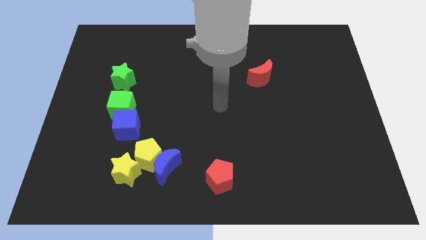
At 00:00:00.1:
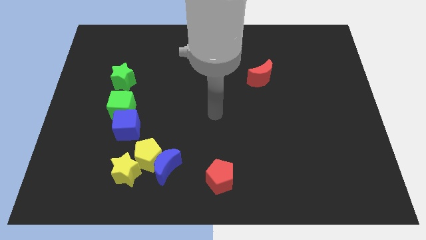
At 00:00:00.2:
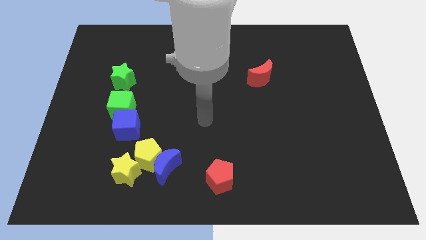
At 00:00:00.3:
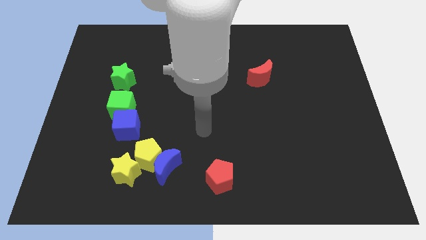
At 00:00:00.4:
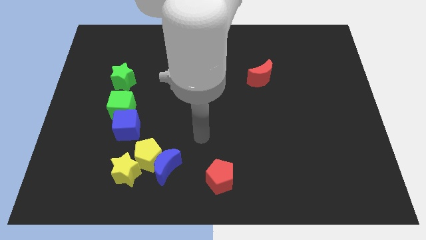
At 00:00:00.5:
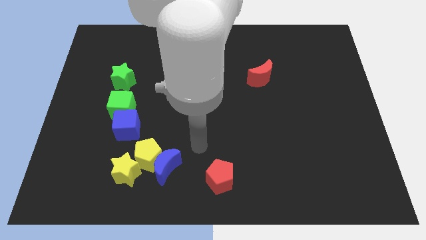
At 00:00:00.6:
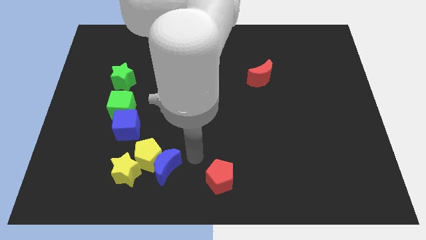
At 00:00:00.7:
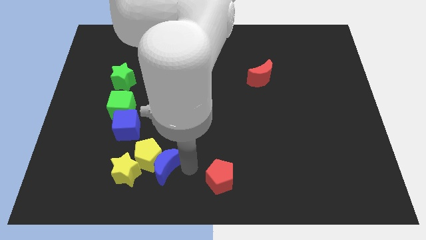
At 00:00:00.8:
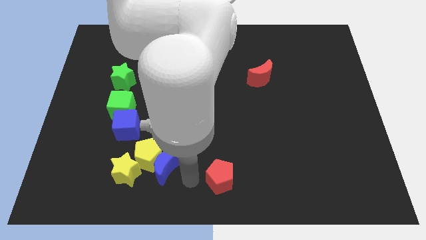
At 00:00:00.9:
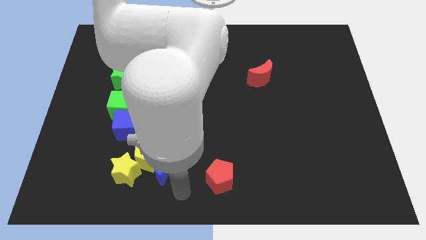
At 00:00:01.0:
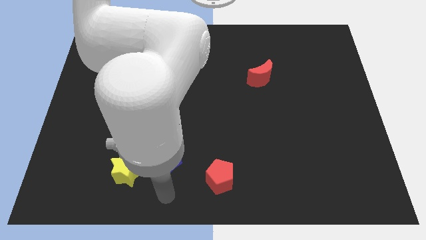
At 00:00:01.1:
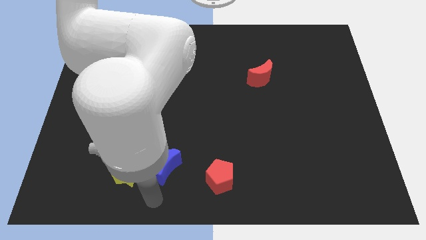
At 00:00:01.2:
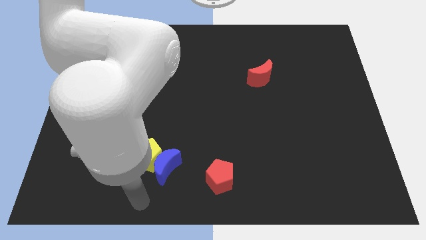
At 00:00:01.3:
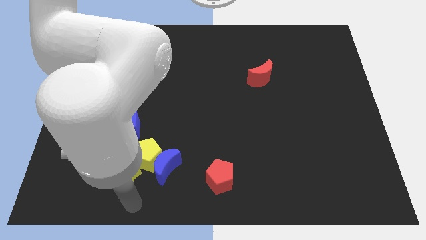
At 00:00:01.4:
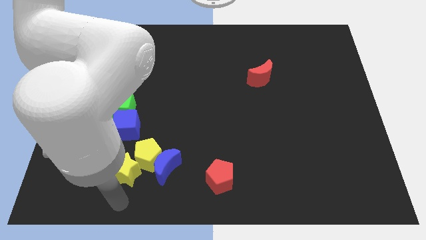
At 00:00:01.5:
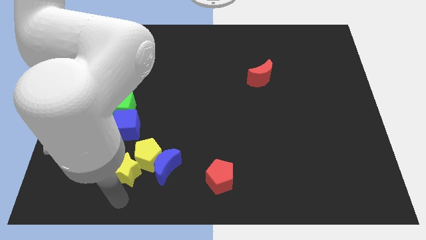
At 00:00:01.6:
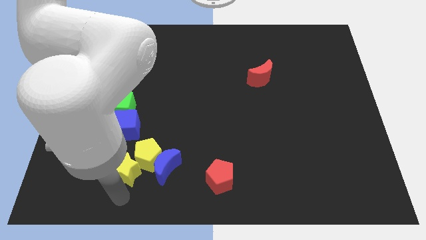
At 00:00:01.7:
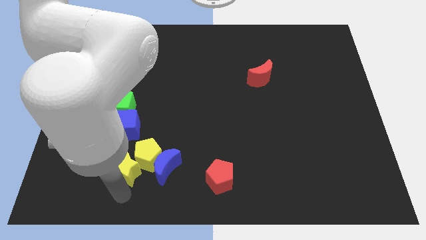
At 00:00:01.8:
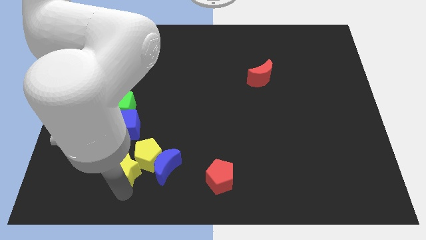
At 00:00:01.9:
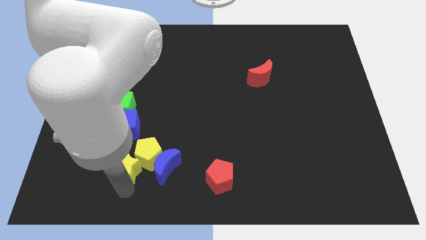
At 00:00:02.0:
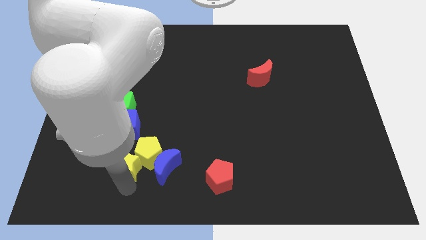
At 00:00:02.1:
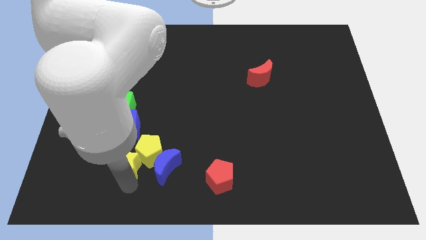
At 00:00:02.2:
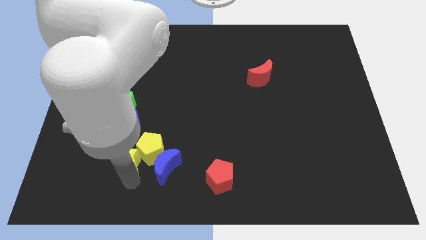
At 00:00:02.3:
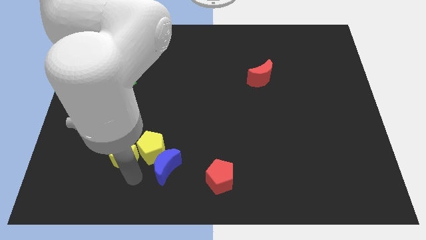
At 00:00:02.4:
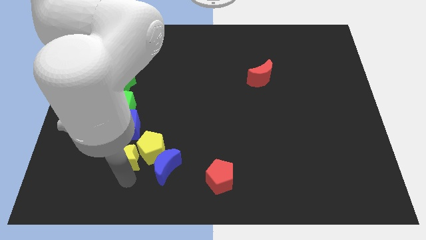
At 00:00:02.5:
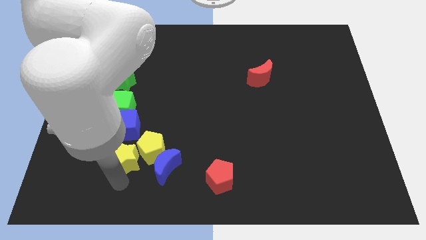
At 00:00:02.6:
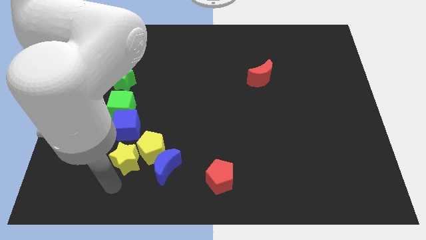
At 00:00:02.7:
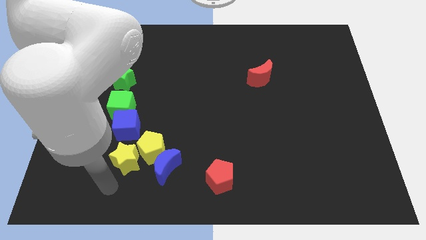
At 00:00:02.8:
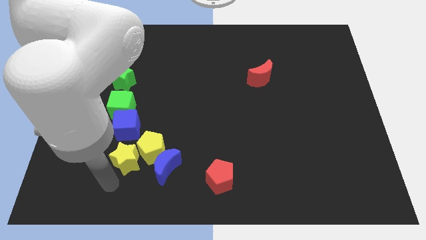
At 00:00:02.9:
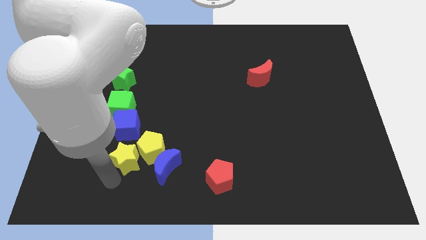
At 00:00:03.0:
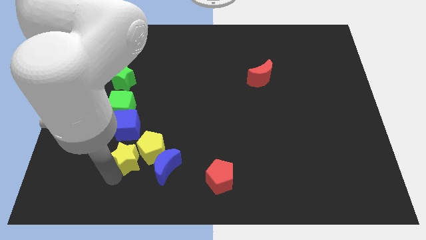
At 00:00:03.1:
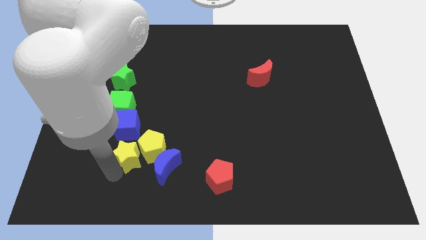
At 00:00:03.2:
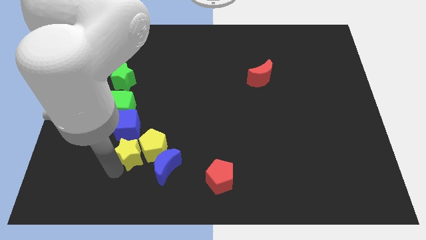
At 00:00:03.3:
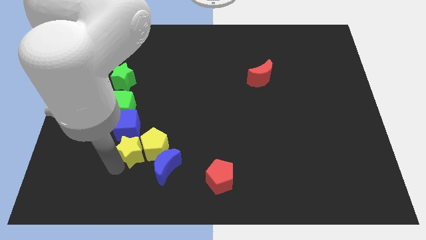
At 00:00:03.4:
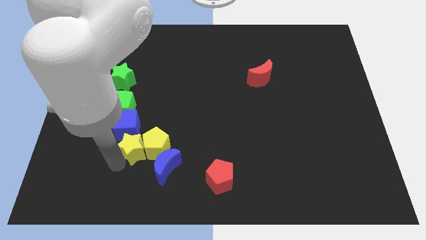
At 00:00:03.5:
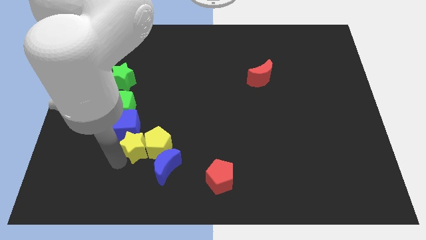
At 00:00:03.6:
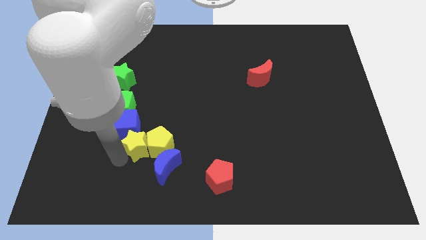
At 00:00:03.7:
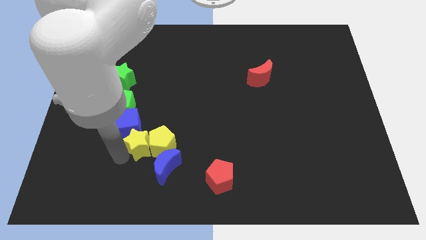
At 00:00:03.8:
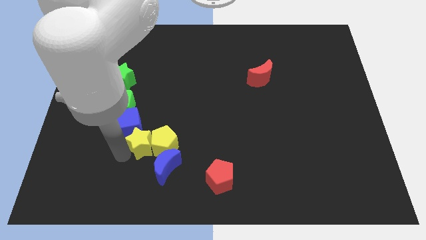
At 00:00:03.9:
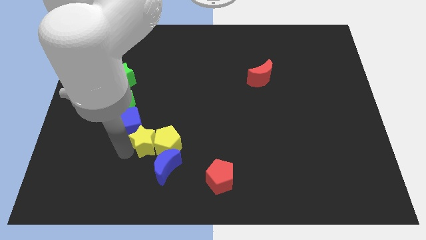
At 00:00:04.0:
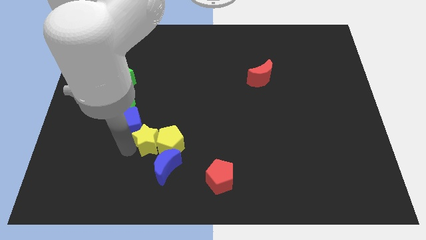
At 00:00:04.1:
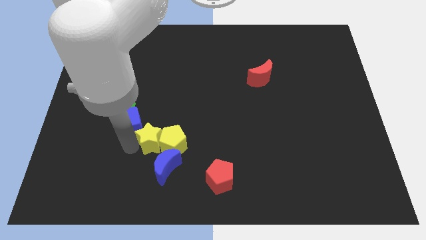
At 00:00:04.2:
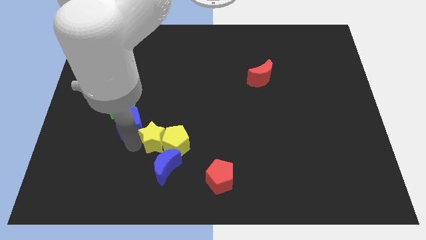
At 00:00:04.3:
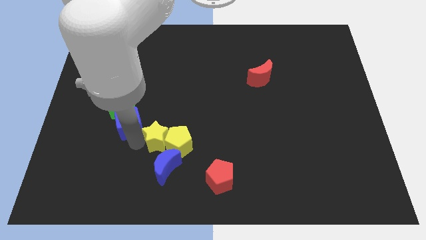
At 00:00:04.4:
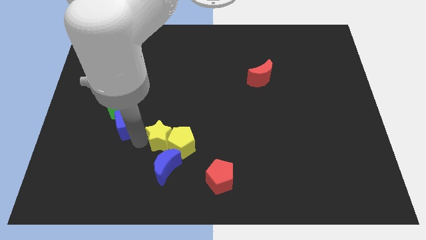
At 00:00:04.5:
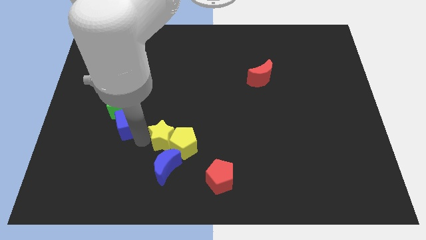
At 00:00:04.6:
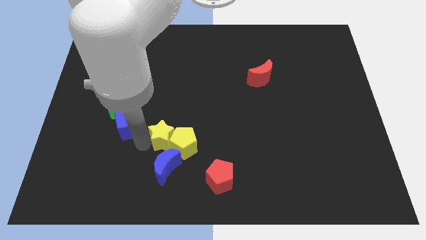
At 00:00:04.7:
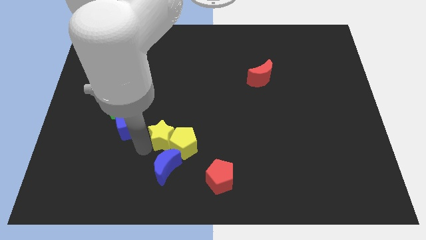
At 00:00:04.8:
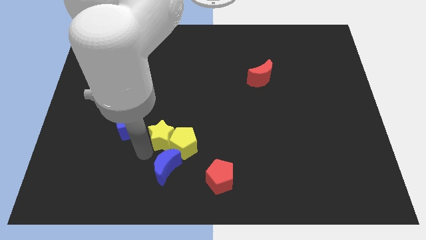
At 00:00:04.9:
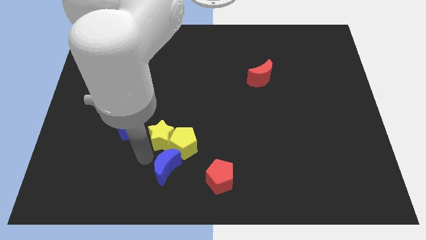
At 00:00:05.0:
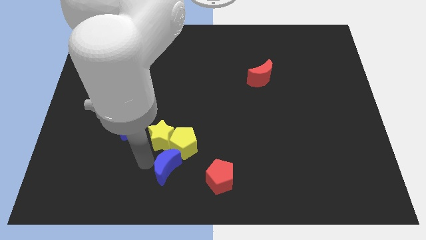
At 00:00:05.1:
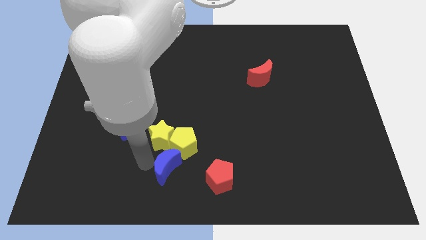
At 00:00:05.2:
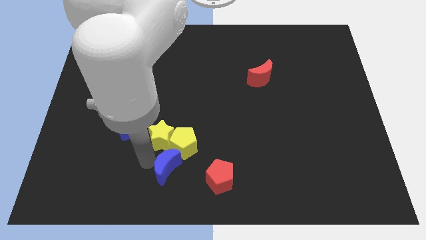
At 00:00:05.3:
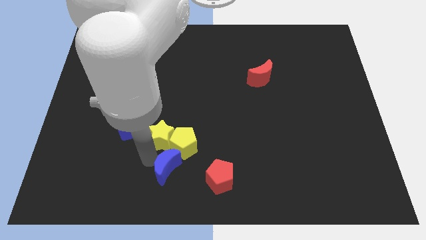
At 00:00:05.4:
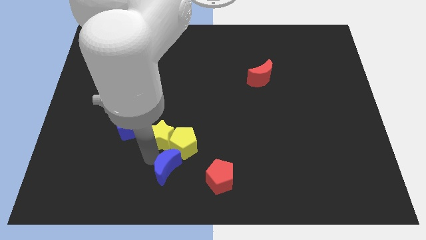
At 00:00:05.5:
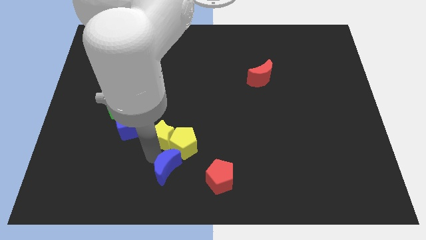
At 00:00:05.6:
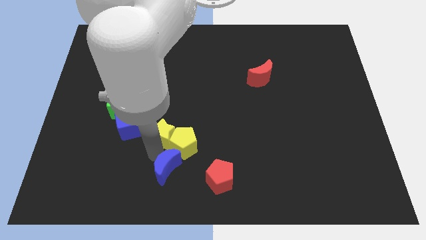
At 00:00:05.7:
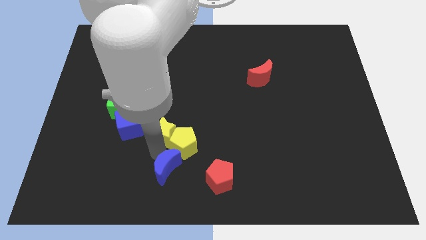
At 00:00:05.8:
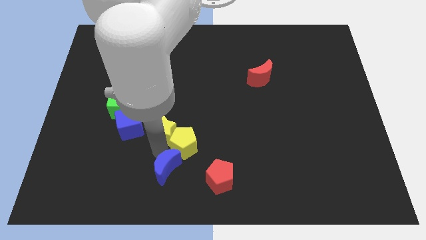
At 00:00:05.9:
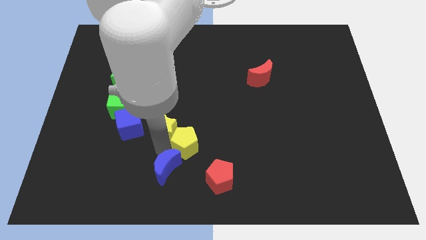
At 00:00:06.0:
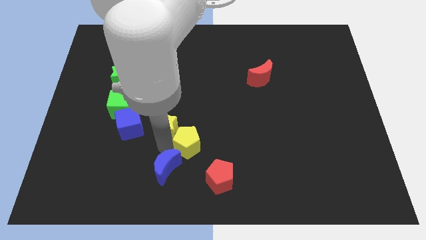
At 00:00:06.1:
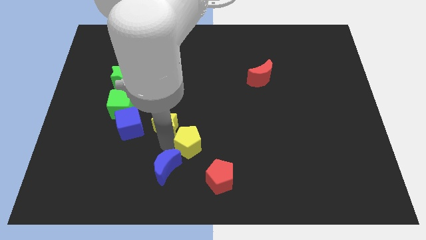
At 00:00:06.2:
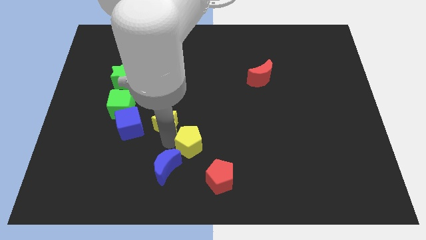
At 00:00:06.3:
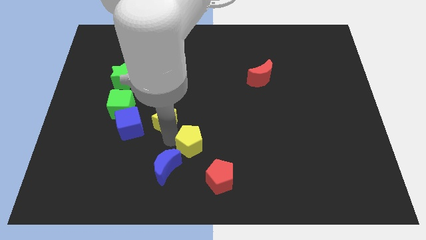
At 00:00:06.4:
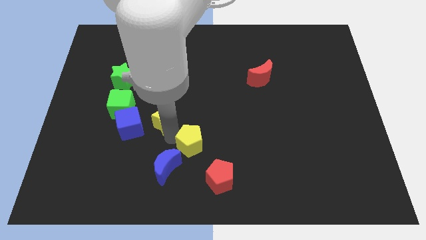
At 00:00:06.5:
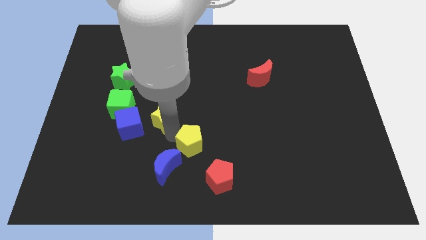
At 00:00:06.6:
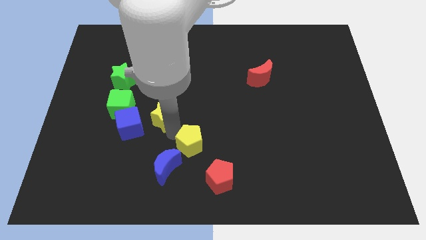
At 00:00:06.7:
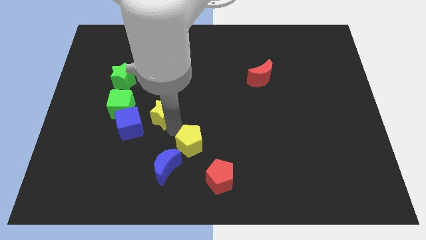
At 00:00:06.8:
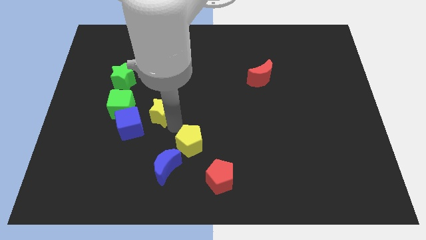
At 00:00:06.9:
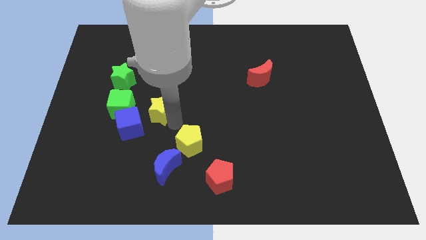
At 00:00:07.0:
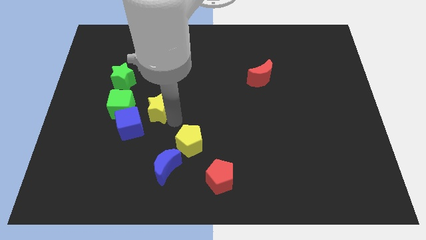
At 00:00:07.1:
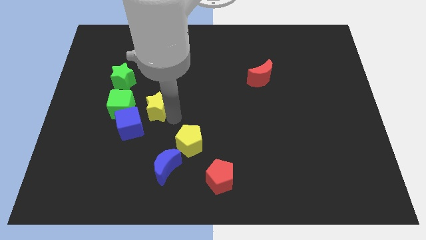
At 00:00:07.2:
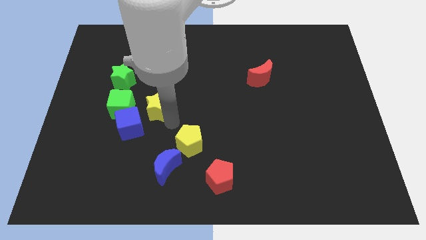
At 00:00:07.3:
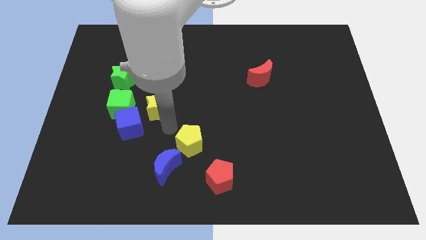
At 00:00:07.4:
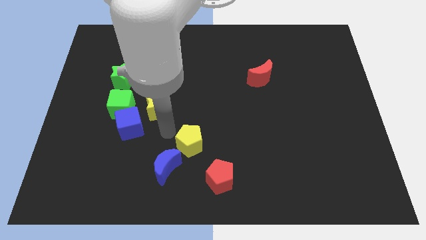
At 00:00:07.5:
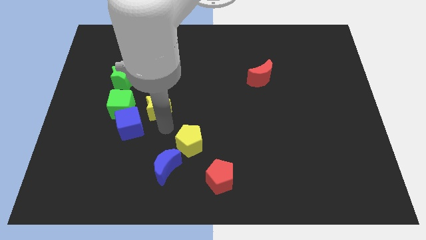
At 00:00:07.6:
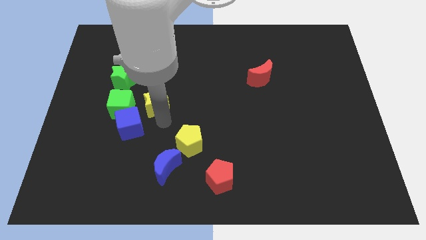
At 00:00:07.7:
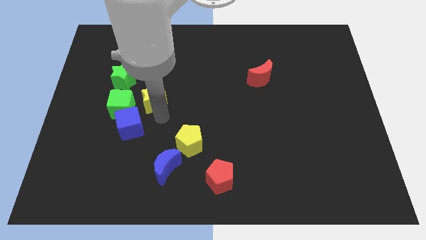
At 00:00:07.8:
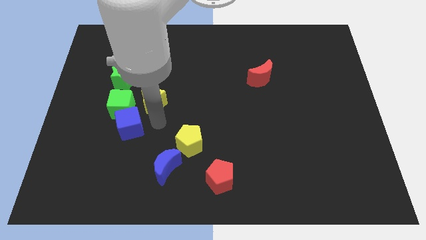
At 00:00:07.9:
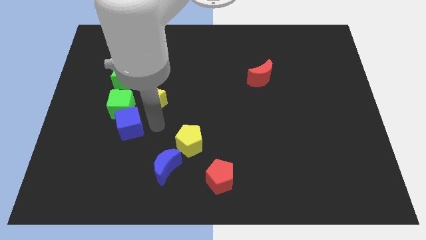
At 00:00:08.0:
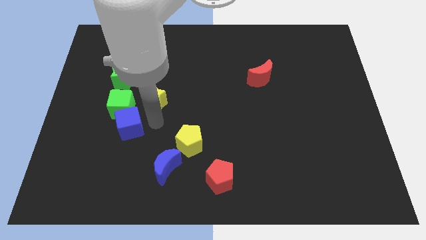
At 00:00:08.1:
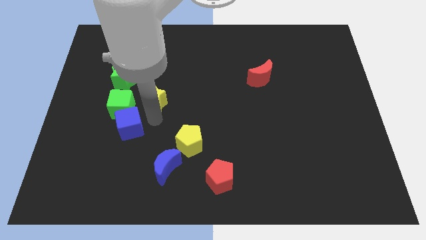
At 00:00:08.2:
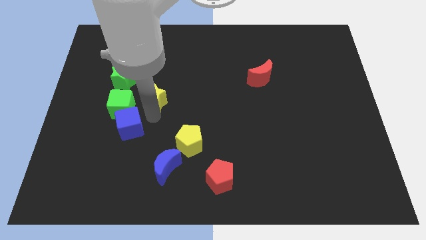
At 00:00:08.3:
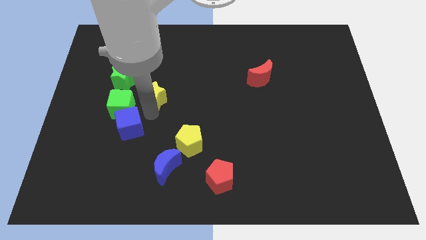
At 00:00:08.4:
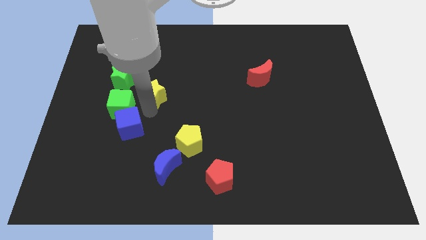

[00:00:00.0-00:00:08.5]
push the yellow star upwards
